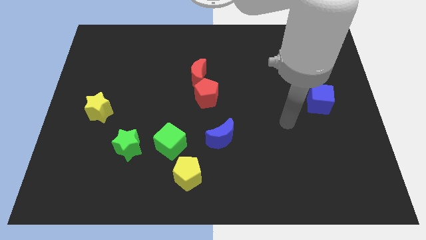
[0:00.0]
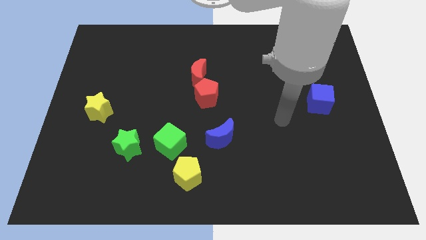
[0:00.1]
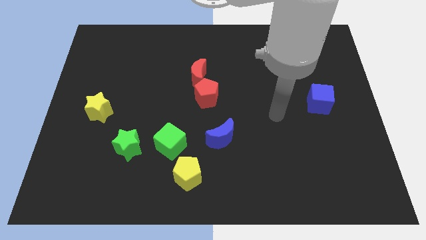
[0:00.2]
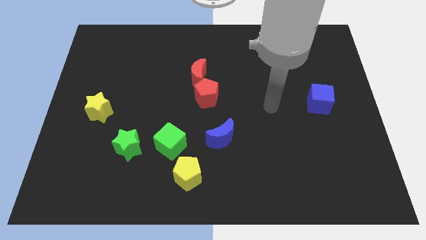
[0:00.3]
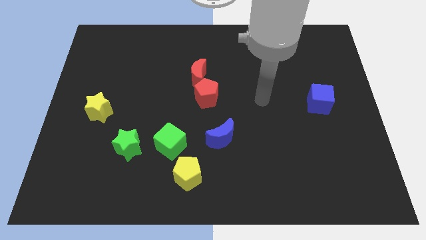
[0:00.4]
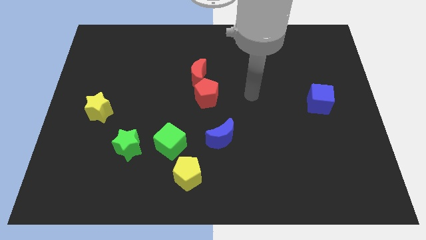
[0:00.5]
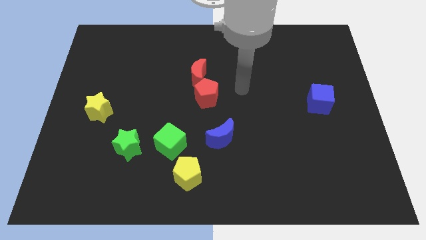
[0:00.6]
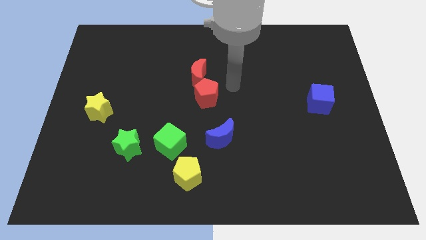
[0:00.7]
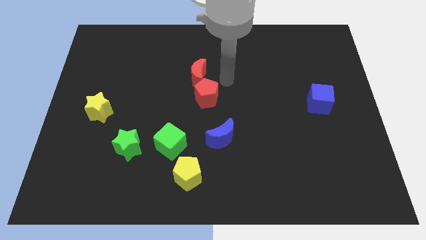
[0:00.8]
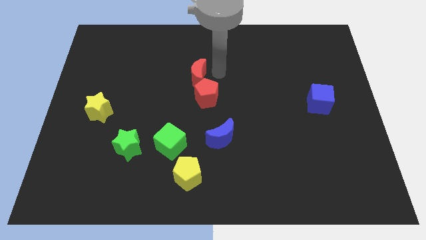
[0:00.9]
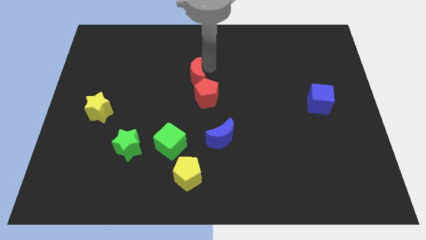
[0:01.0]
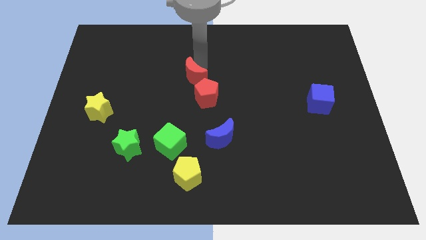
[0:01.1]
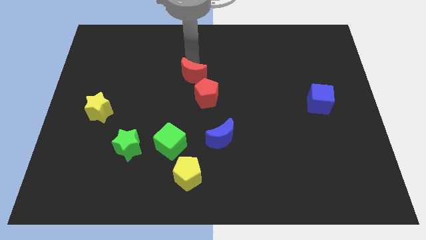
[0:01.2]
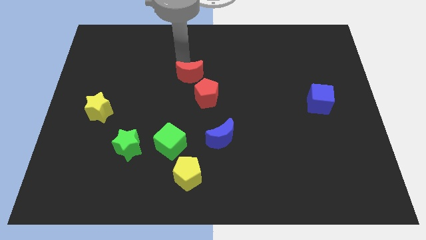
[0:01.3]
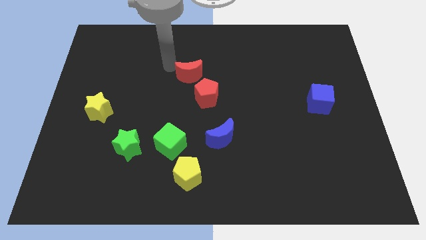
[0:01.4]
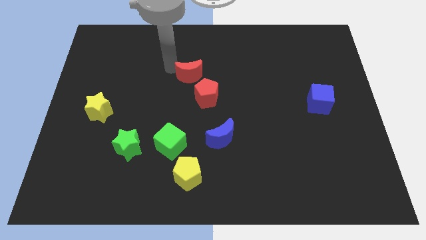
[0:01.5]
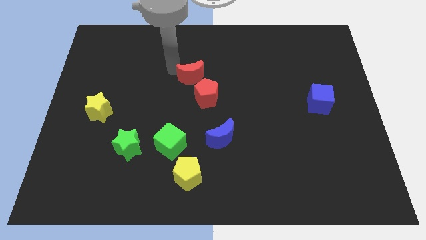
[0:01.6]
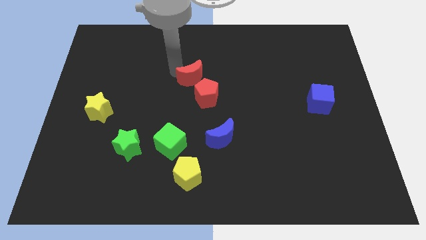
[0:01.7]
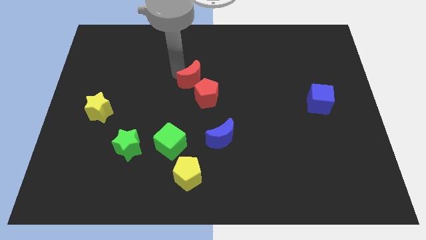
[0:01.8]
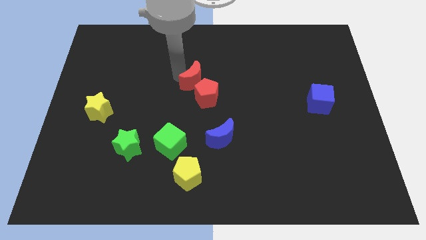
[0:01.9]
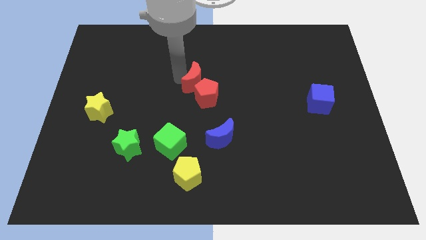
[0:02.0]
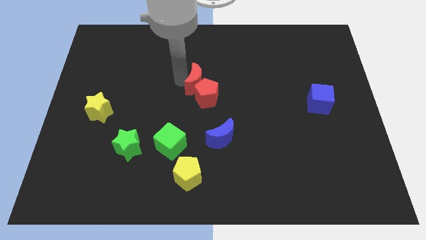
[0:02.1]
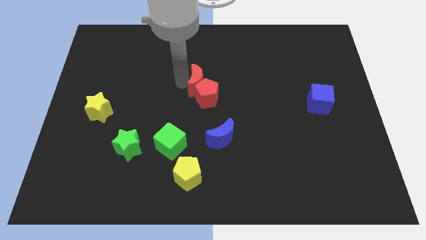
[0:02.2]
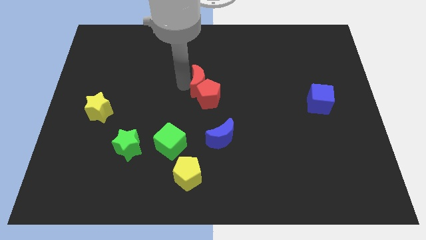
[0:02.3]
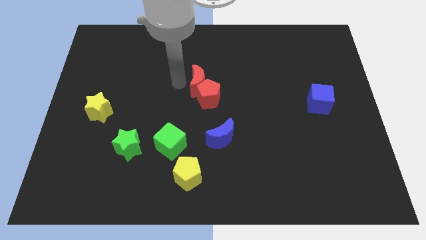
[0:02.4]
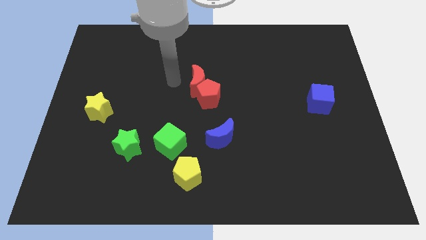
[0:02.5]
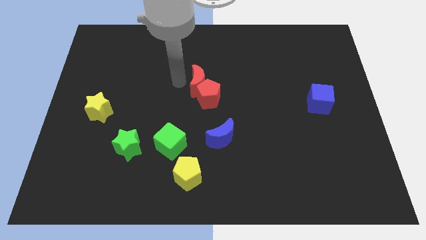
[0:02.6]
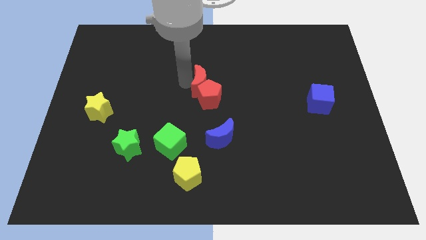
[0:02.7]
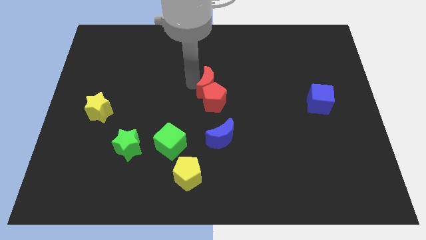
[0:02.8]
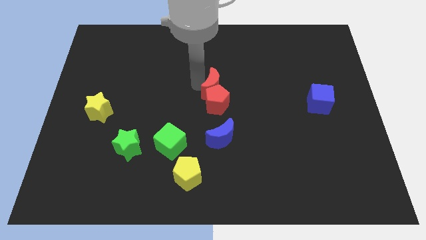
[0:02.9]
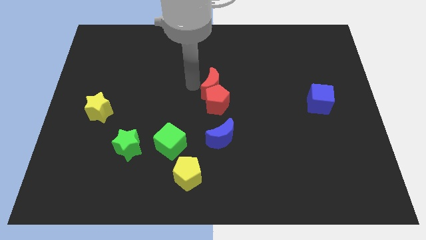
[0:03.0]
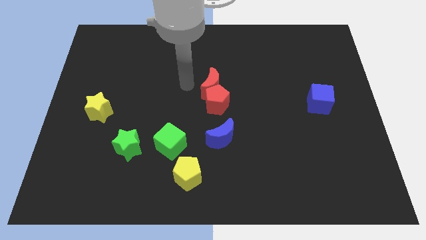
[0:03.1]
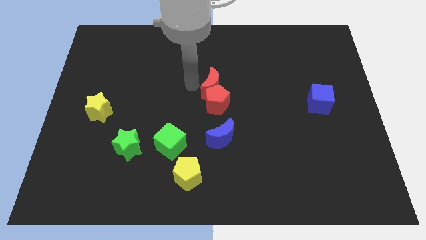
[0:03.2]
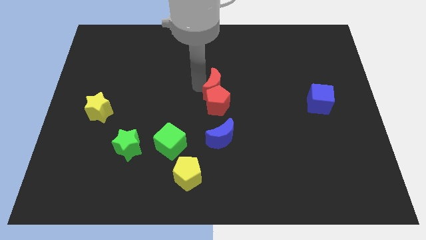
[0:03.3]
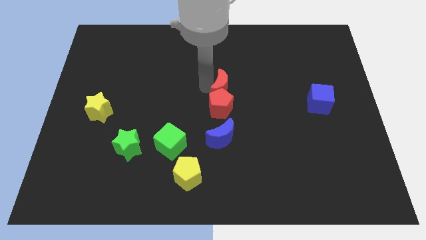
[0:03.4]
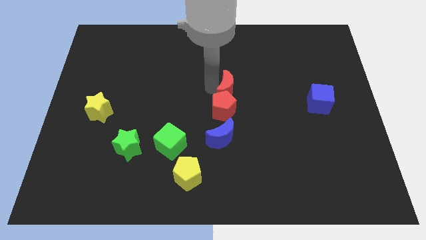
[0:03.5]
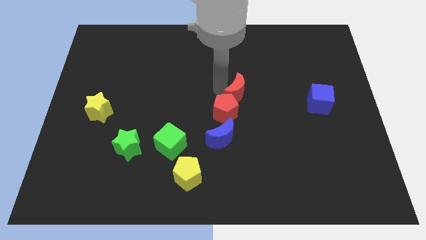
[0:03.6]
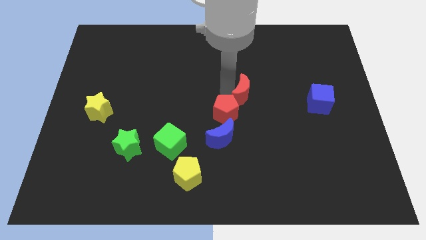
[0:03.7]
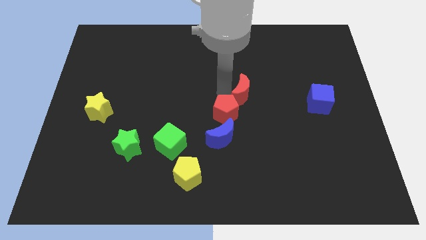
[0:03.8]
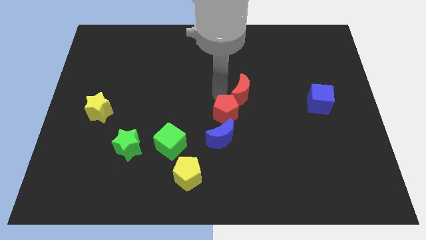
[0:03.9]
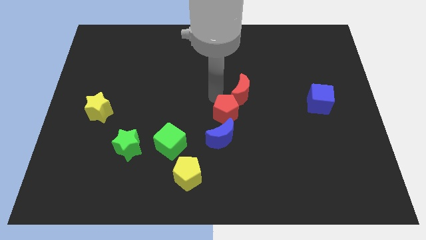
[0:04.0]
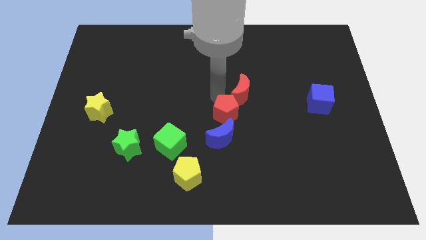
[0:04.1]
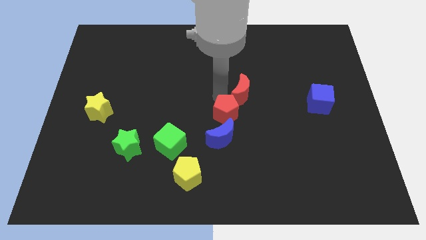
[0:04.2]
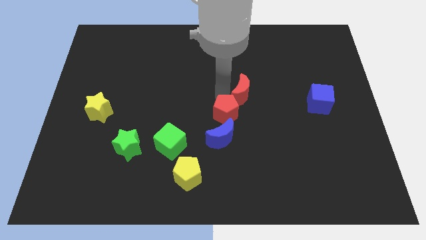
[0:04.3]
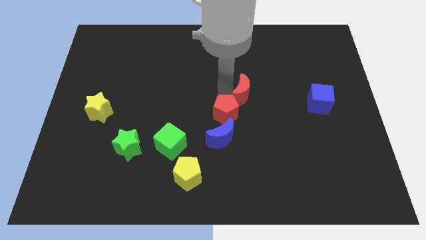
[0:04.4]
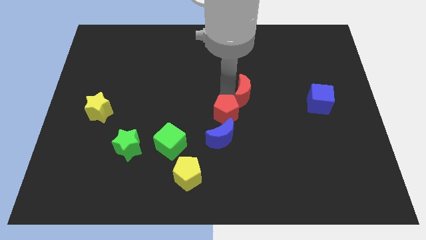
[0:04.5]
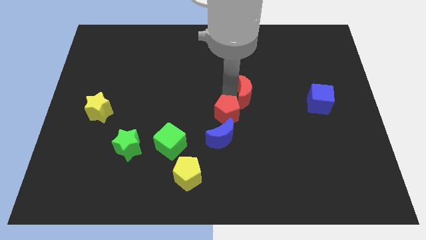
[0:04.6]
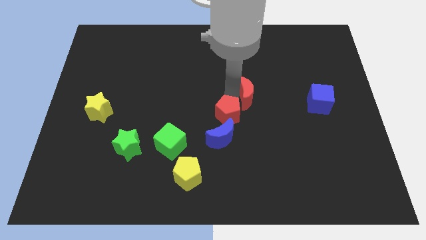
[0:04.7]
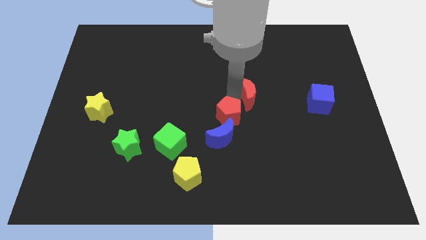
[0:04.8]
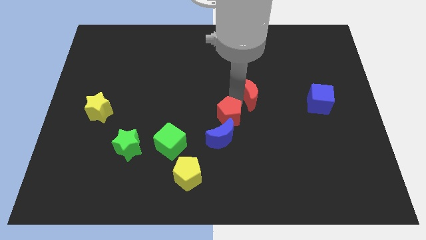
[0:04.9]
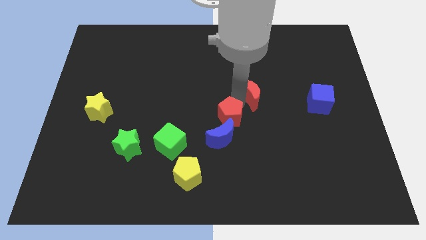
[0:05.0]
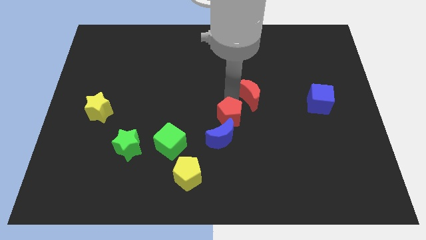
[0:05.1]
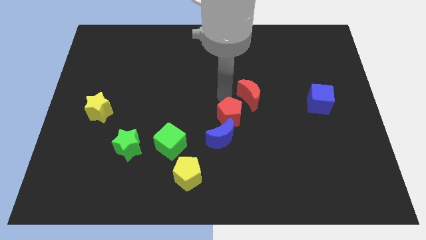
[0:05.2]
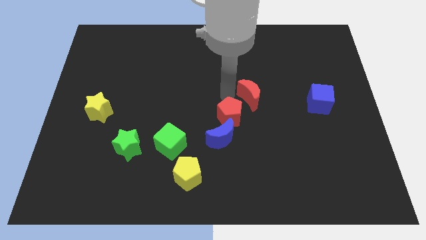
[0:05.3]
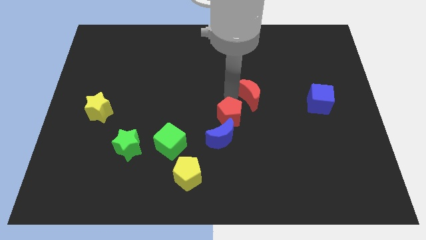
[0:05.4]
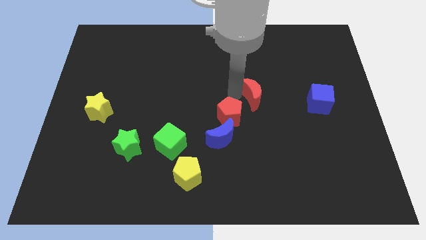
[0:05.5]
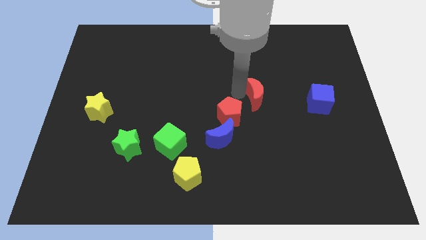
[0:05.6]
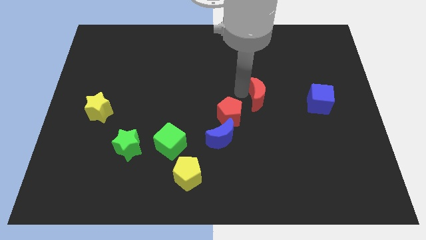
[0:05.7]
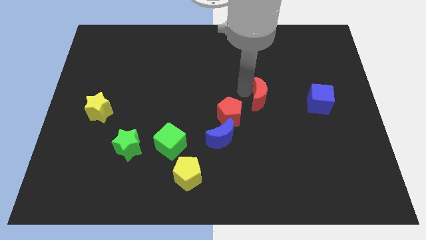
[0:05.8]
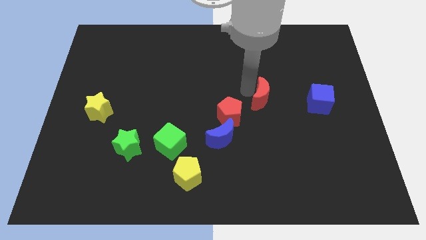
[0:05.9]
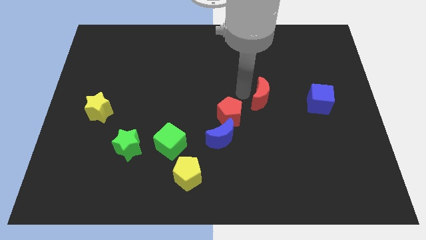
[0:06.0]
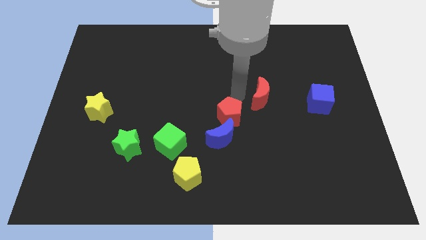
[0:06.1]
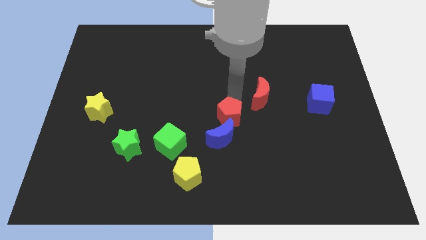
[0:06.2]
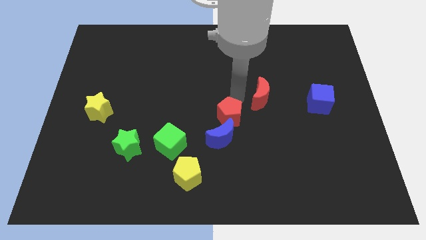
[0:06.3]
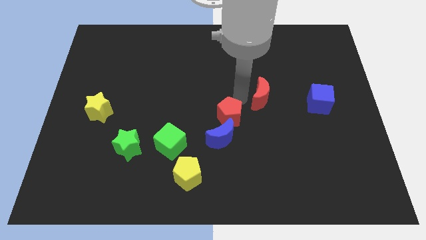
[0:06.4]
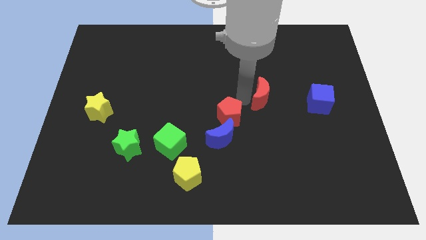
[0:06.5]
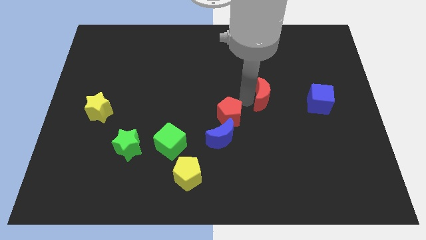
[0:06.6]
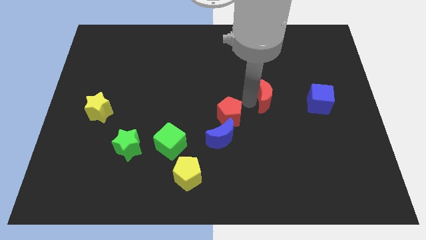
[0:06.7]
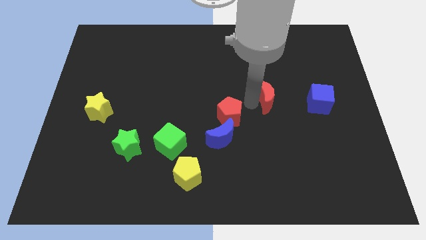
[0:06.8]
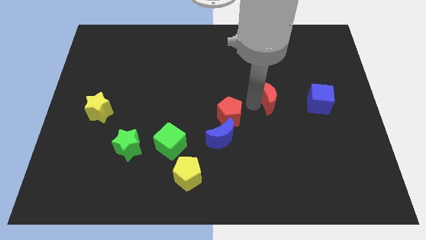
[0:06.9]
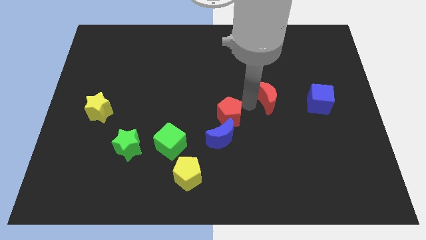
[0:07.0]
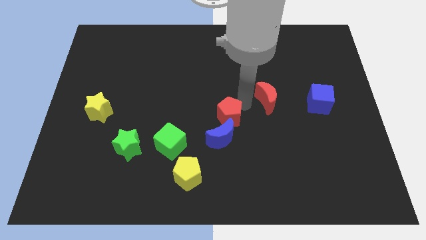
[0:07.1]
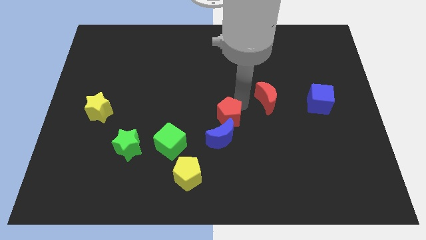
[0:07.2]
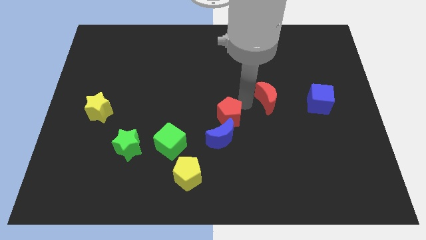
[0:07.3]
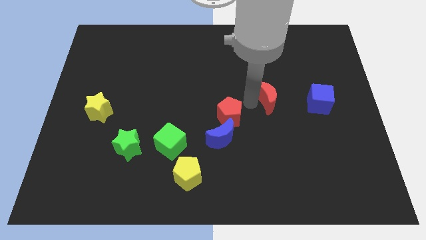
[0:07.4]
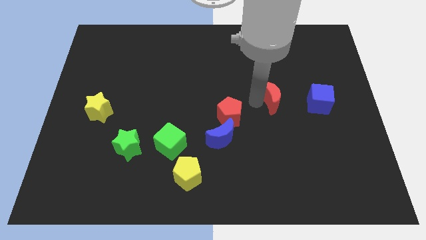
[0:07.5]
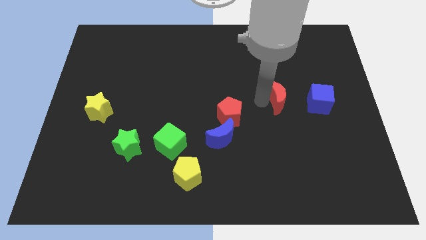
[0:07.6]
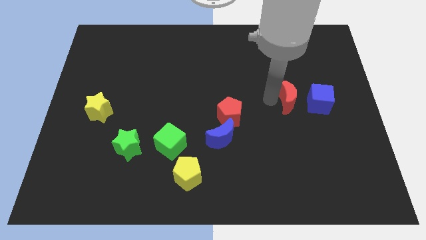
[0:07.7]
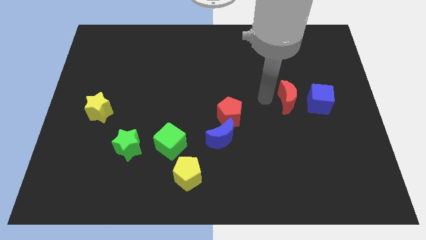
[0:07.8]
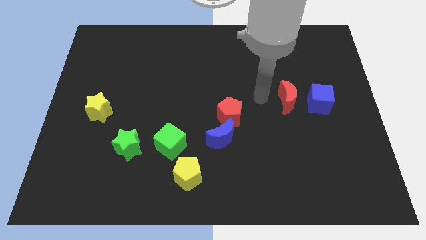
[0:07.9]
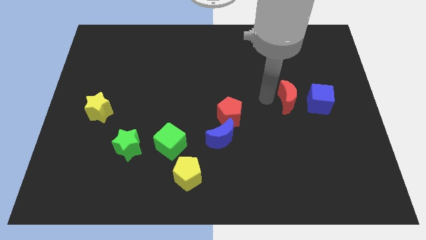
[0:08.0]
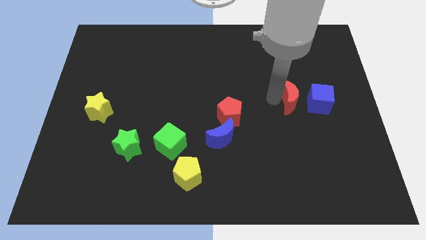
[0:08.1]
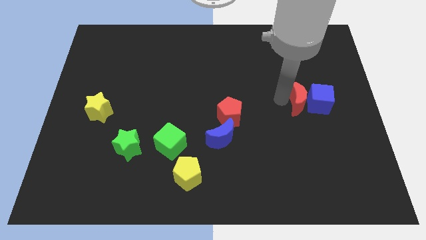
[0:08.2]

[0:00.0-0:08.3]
push the red moon to the blue cube
